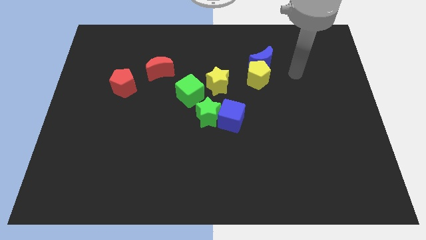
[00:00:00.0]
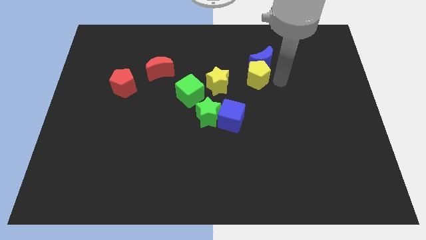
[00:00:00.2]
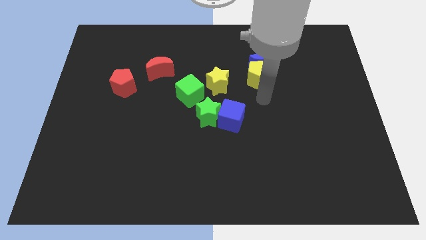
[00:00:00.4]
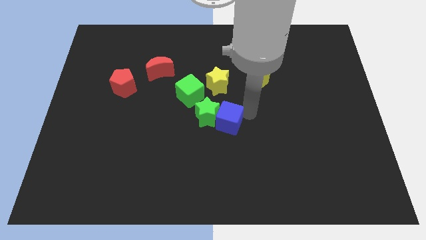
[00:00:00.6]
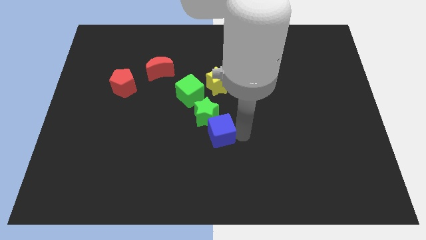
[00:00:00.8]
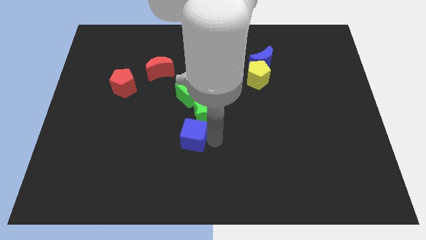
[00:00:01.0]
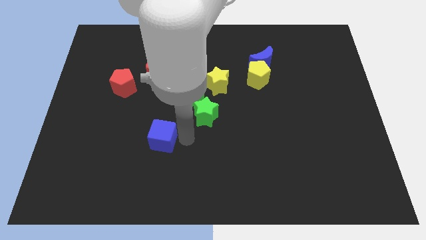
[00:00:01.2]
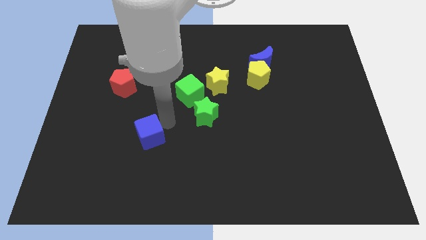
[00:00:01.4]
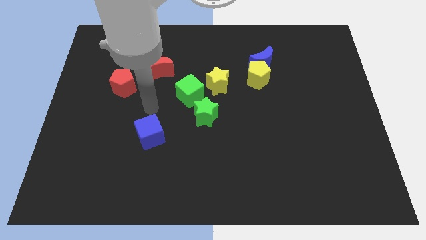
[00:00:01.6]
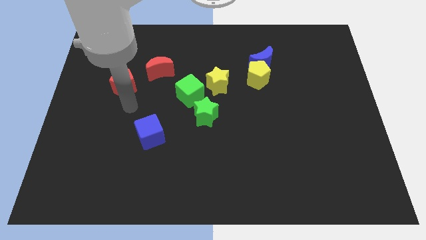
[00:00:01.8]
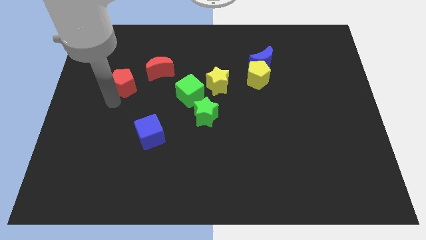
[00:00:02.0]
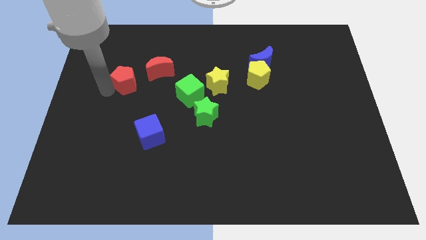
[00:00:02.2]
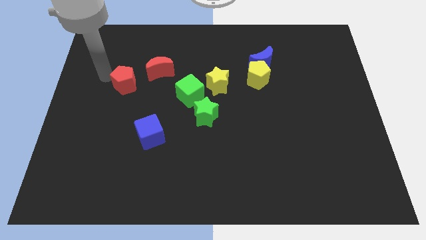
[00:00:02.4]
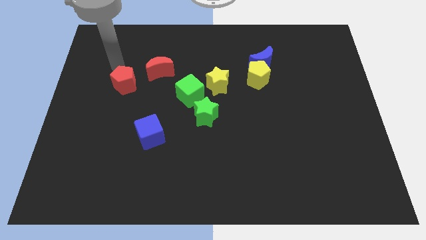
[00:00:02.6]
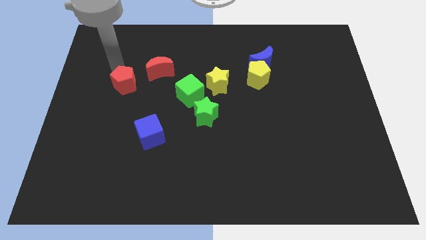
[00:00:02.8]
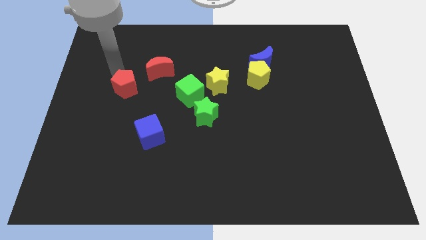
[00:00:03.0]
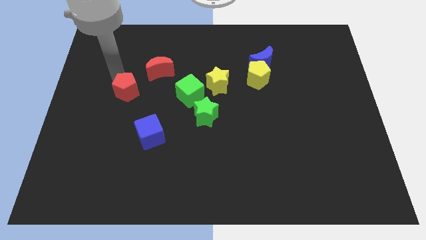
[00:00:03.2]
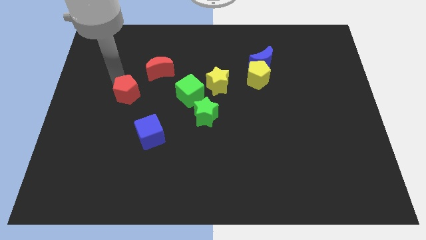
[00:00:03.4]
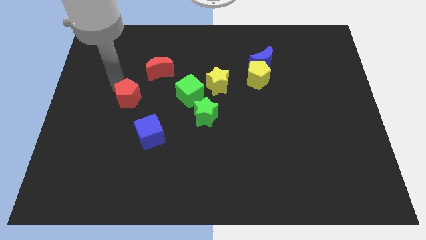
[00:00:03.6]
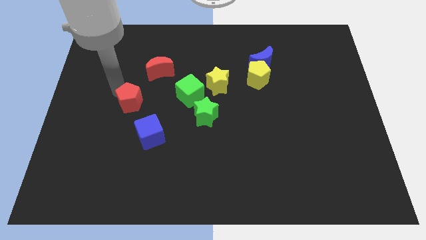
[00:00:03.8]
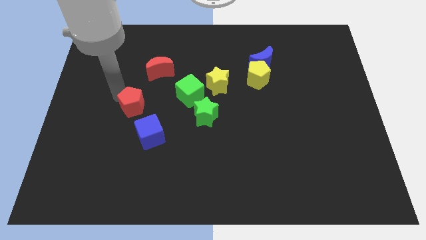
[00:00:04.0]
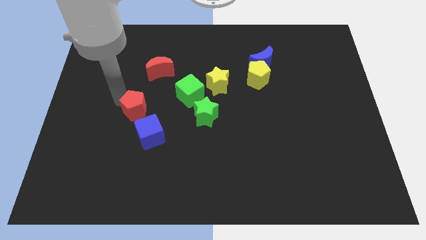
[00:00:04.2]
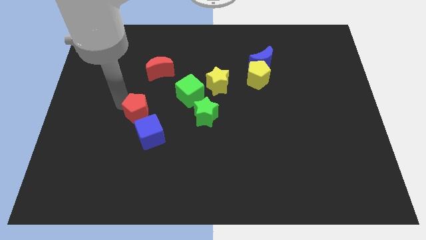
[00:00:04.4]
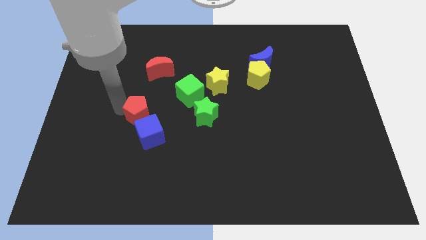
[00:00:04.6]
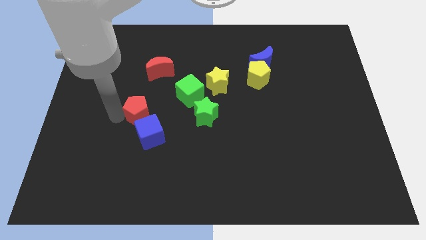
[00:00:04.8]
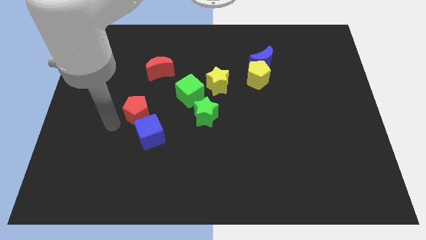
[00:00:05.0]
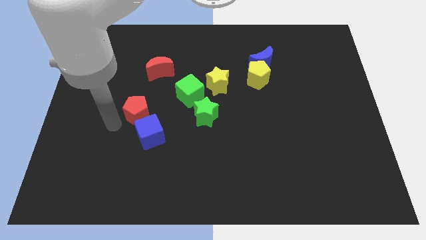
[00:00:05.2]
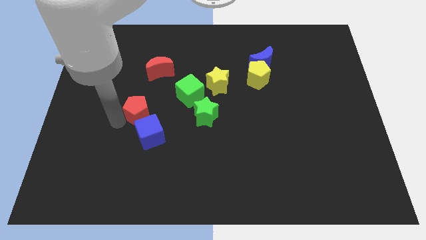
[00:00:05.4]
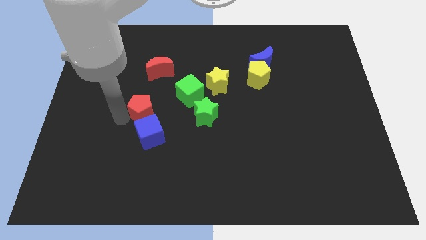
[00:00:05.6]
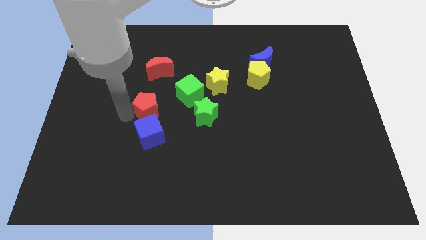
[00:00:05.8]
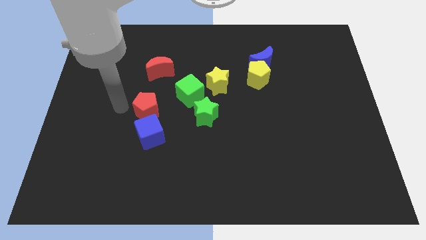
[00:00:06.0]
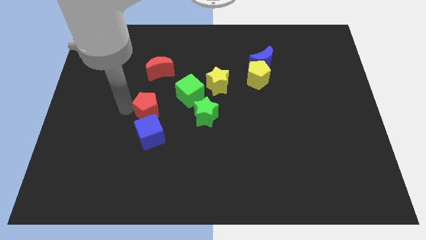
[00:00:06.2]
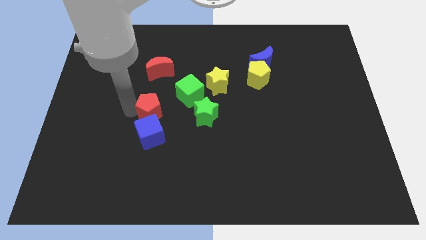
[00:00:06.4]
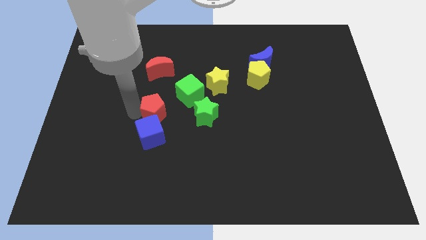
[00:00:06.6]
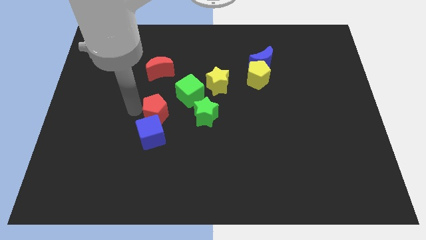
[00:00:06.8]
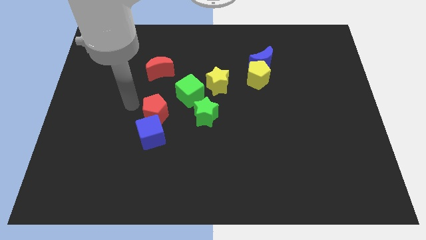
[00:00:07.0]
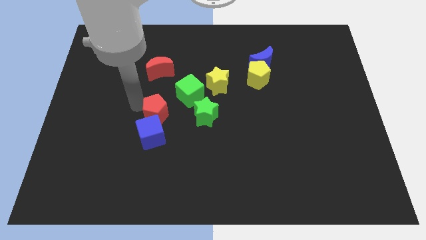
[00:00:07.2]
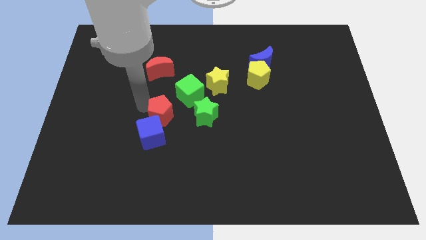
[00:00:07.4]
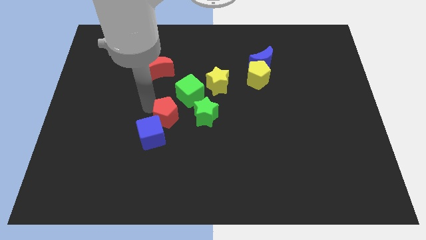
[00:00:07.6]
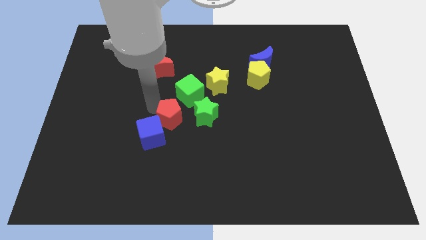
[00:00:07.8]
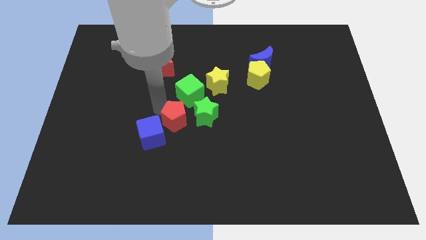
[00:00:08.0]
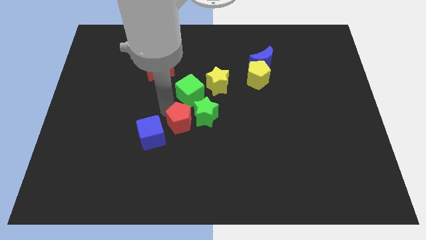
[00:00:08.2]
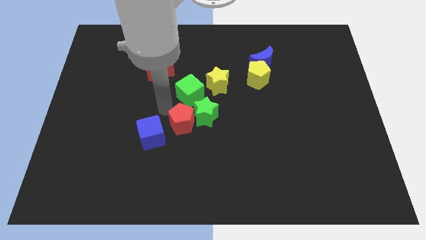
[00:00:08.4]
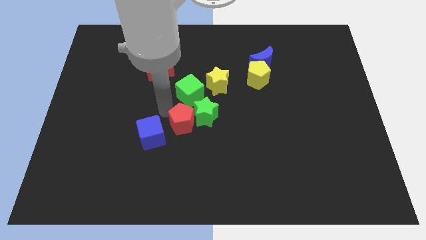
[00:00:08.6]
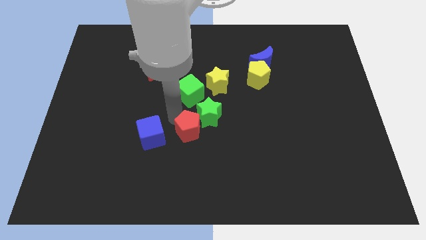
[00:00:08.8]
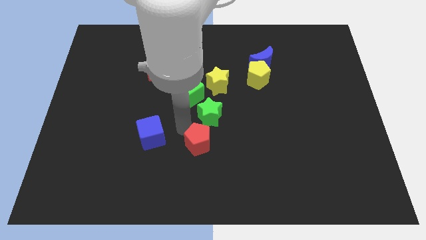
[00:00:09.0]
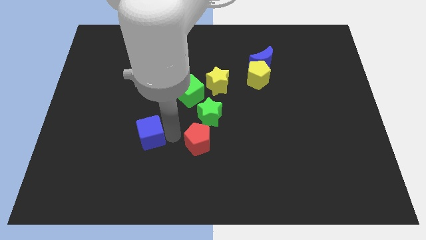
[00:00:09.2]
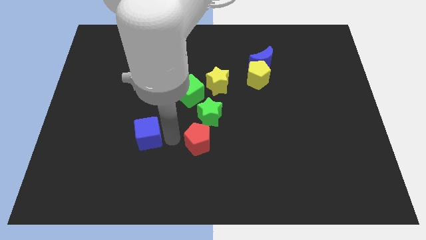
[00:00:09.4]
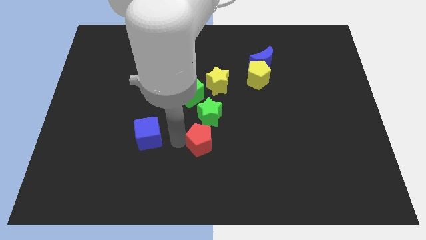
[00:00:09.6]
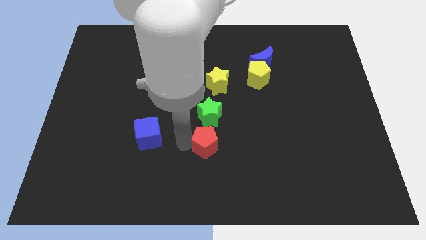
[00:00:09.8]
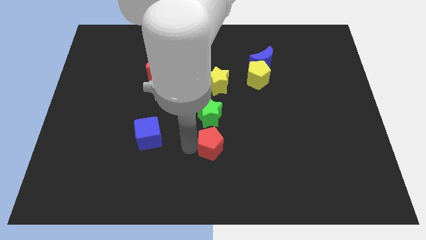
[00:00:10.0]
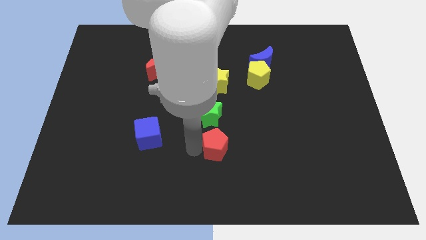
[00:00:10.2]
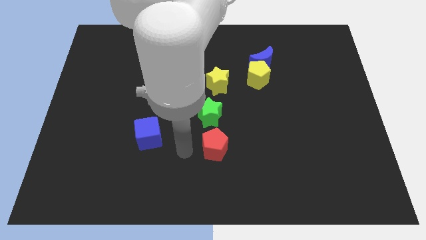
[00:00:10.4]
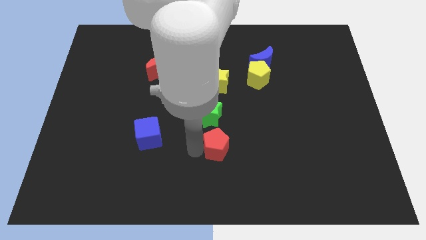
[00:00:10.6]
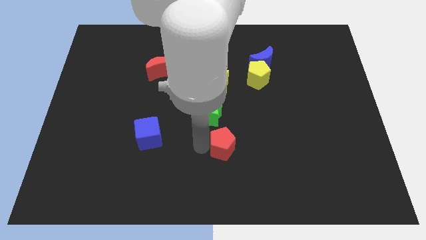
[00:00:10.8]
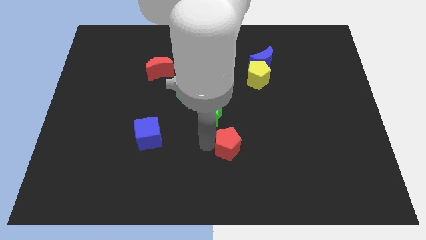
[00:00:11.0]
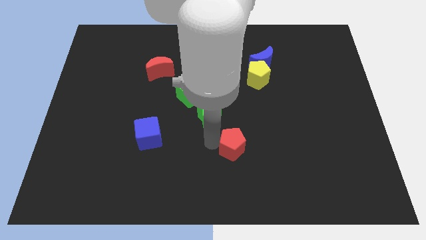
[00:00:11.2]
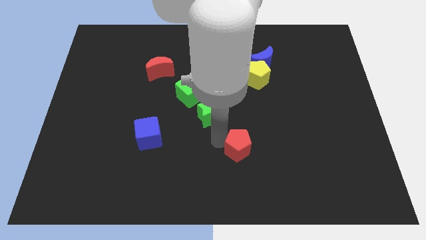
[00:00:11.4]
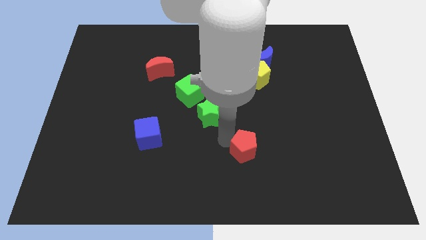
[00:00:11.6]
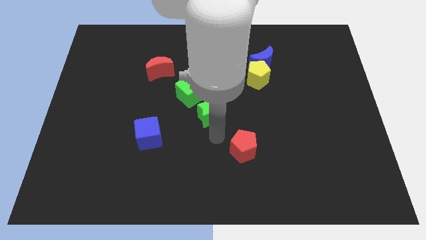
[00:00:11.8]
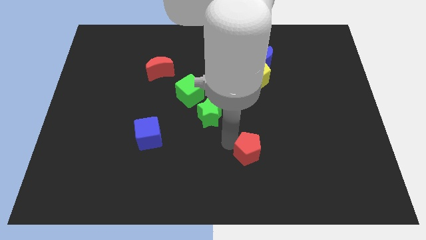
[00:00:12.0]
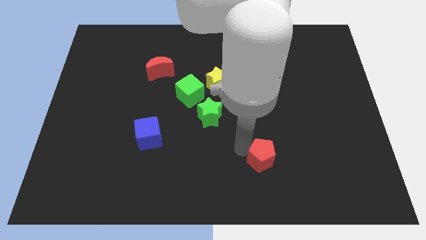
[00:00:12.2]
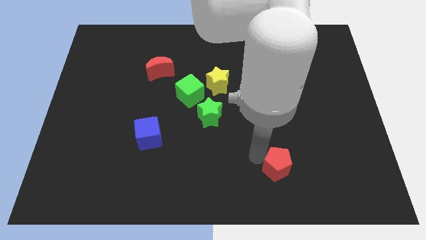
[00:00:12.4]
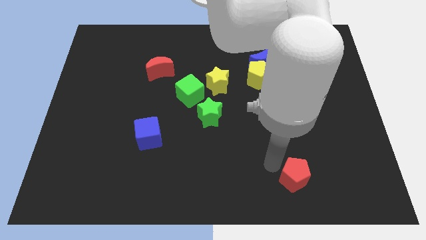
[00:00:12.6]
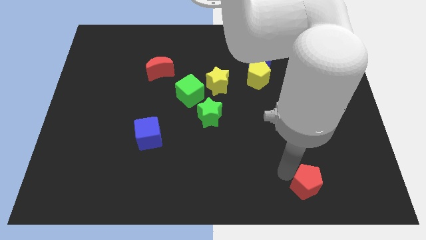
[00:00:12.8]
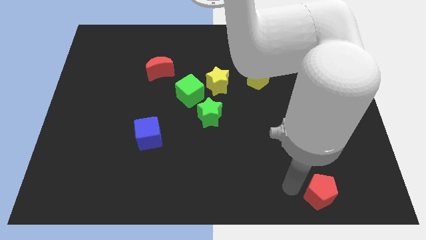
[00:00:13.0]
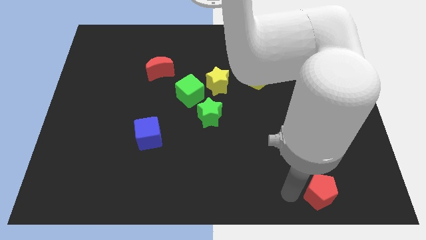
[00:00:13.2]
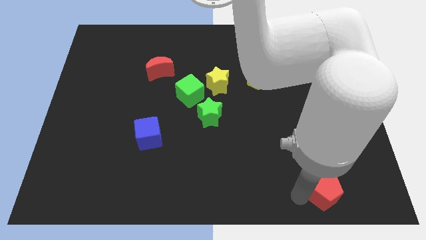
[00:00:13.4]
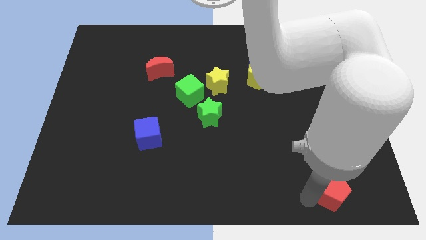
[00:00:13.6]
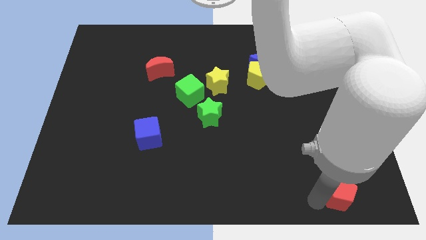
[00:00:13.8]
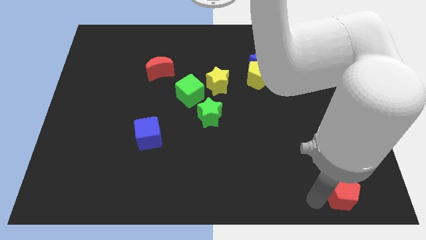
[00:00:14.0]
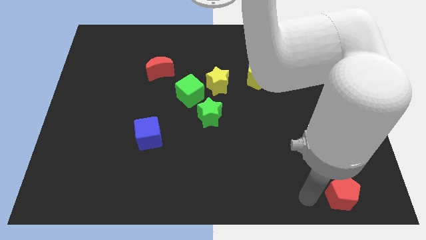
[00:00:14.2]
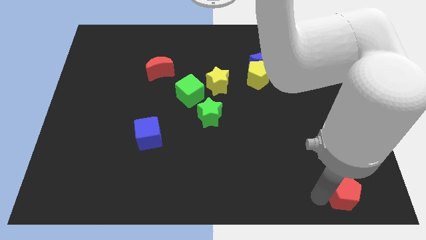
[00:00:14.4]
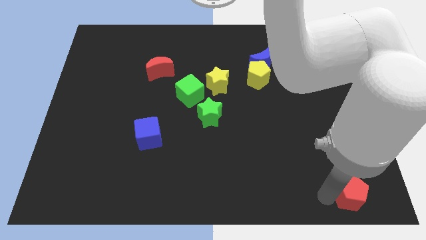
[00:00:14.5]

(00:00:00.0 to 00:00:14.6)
slide the red pentagon to the bottom right corner
